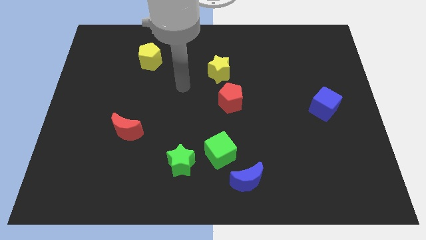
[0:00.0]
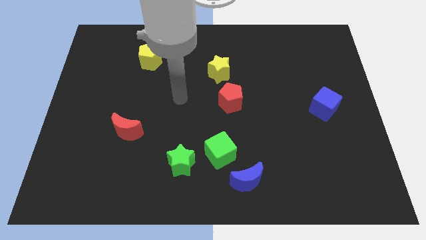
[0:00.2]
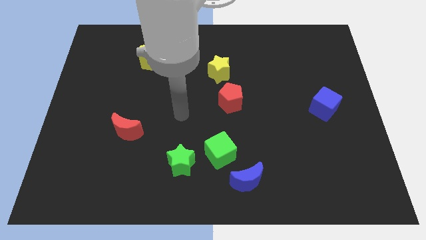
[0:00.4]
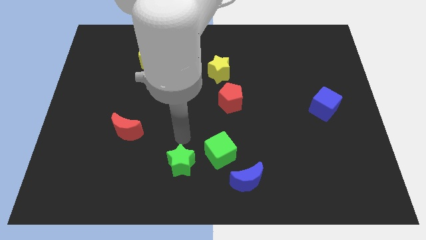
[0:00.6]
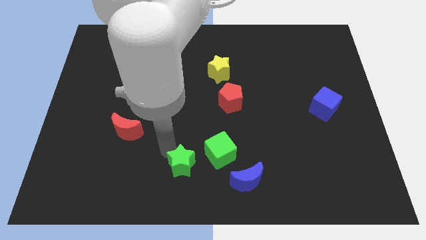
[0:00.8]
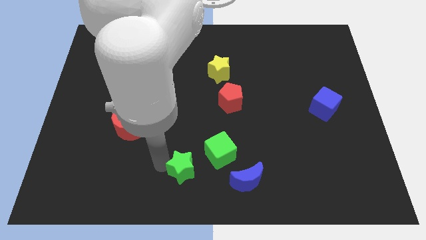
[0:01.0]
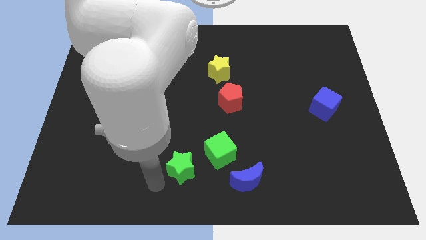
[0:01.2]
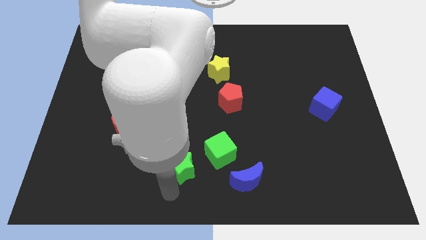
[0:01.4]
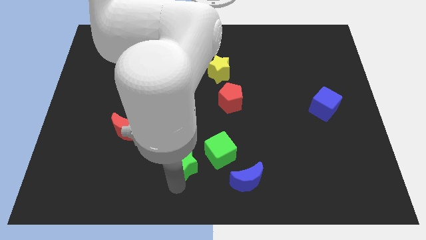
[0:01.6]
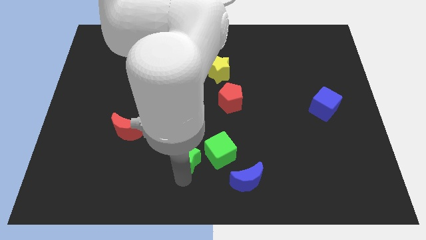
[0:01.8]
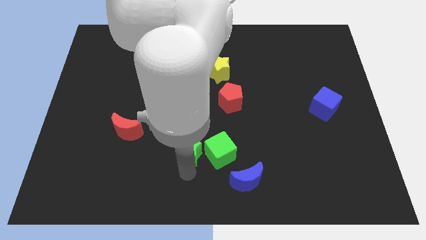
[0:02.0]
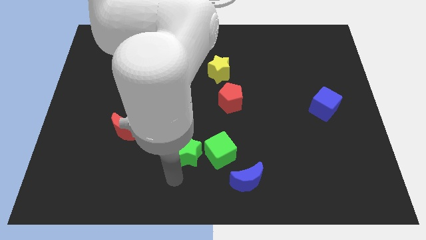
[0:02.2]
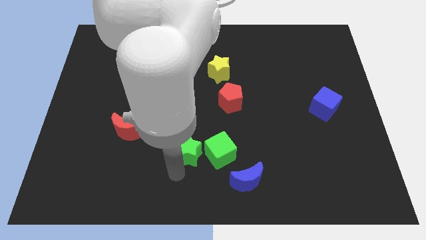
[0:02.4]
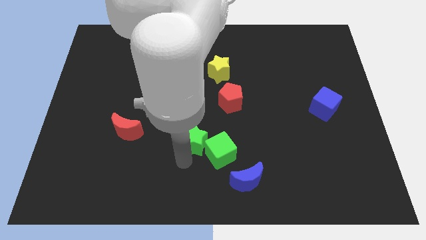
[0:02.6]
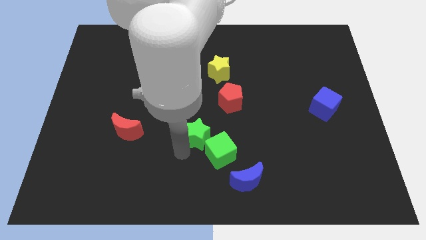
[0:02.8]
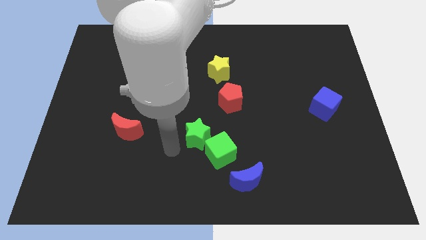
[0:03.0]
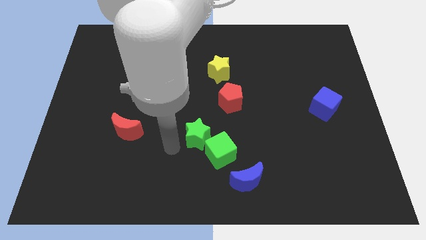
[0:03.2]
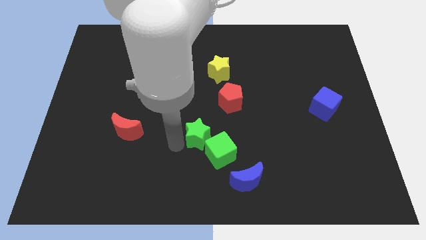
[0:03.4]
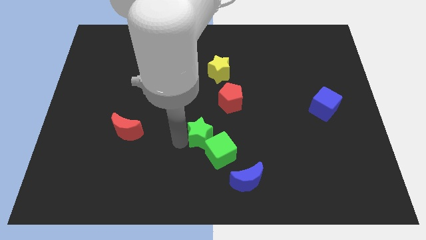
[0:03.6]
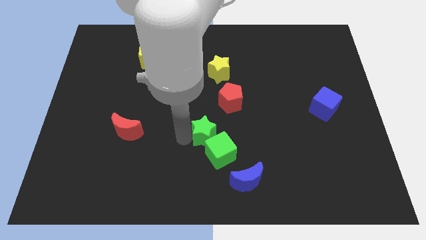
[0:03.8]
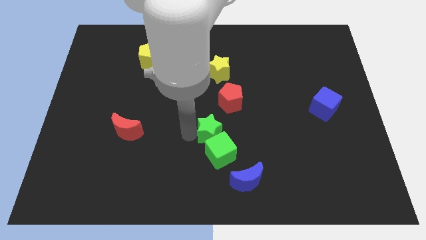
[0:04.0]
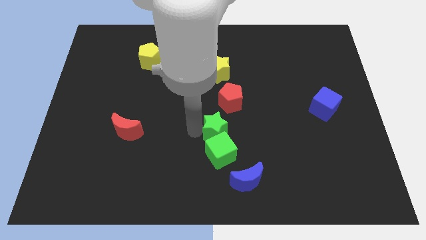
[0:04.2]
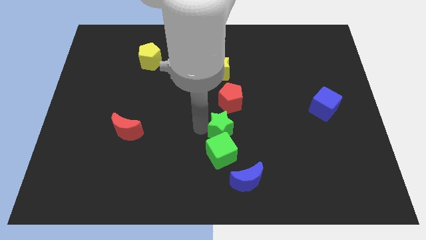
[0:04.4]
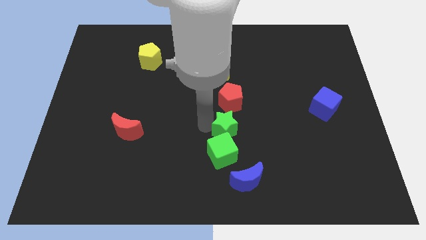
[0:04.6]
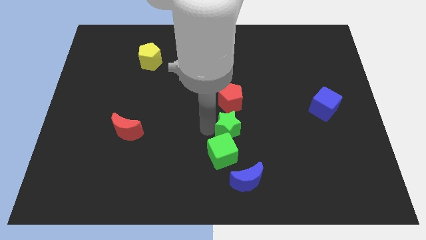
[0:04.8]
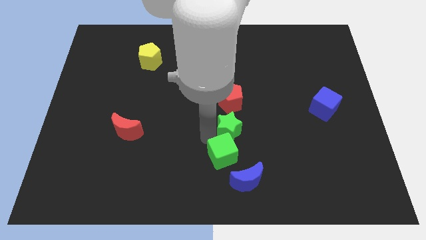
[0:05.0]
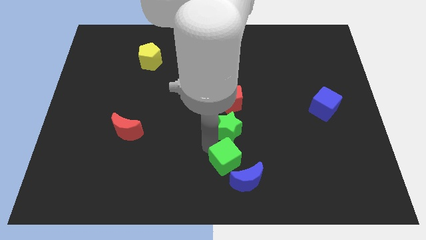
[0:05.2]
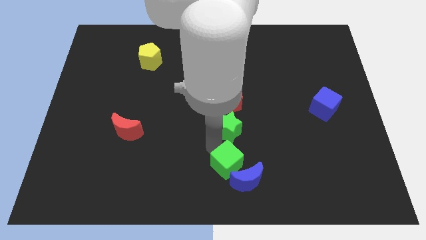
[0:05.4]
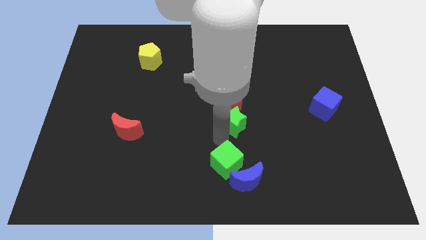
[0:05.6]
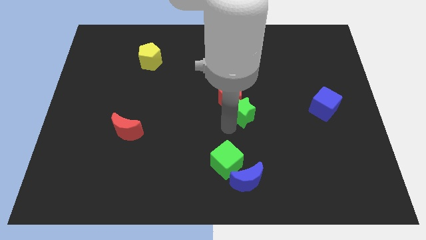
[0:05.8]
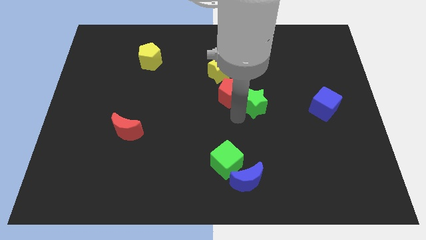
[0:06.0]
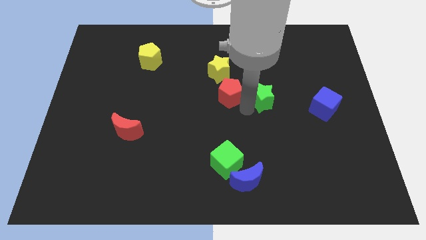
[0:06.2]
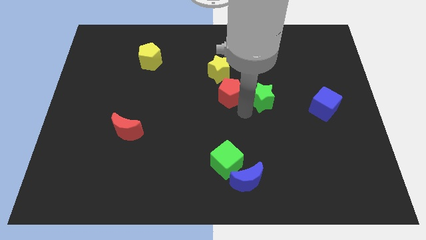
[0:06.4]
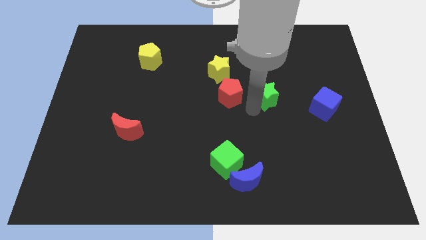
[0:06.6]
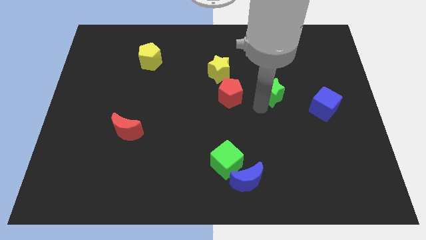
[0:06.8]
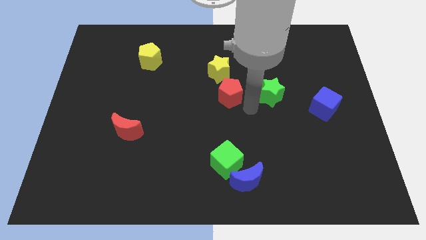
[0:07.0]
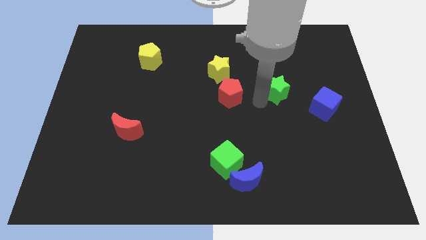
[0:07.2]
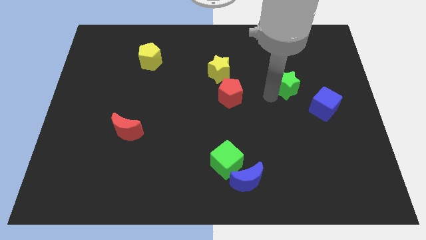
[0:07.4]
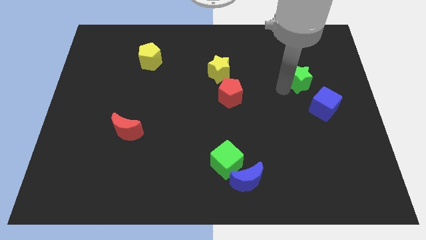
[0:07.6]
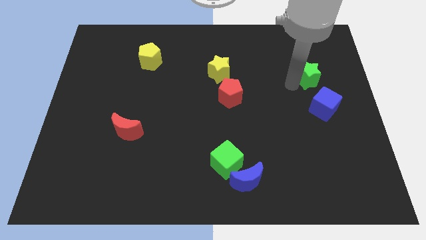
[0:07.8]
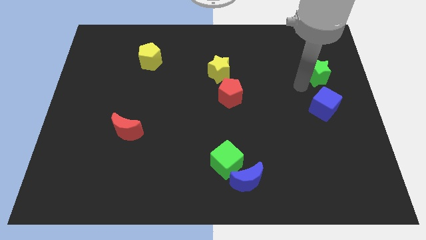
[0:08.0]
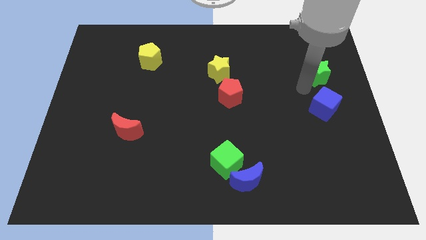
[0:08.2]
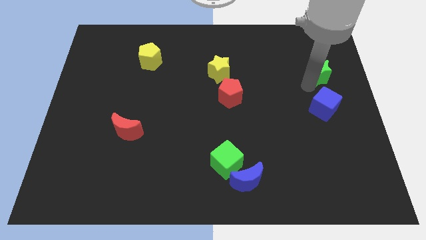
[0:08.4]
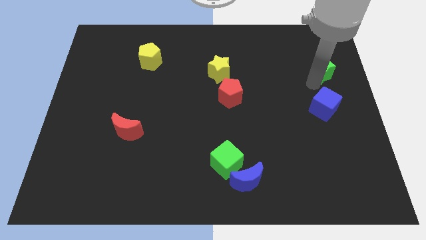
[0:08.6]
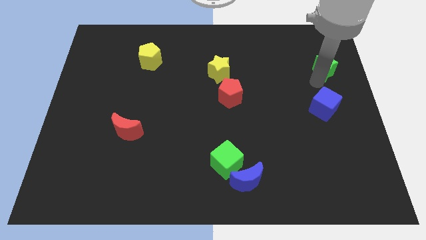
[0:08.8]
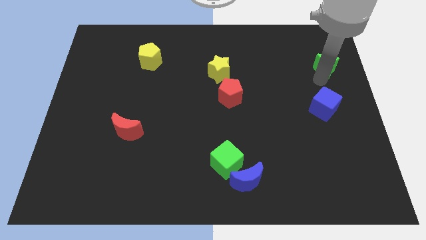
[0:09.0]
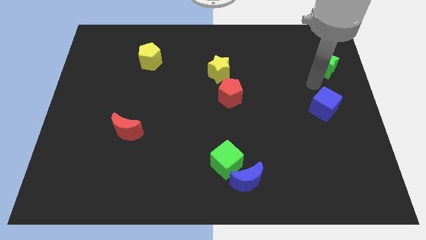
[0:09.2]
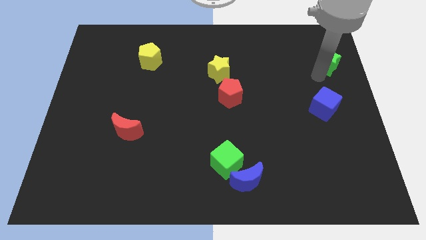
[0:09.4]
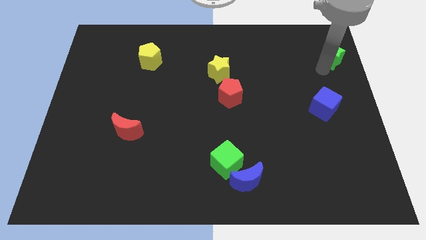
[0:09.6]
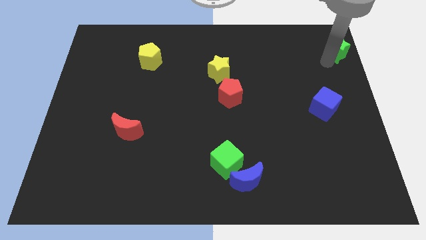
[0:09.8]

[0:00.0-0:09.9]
put the green star to the top right of the board
